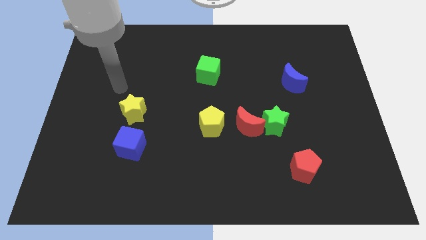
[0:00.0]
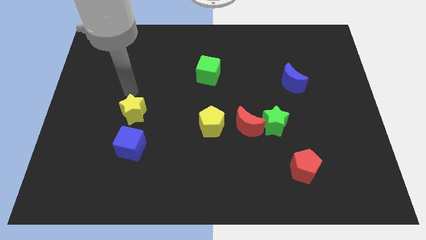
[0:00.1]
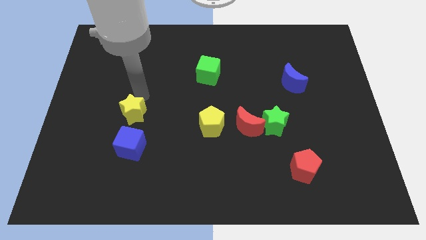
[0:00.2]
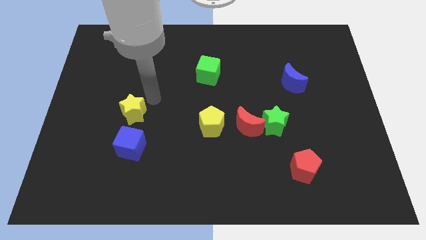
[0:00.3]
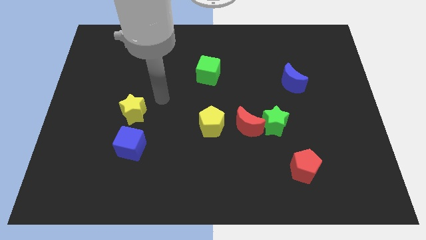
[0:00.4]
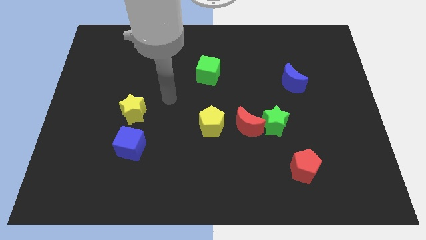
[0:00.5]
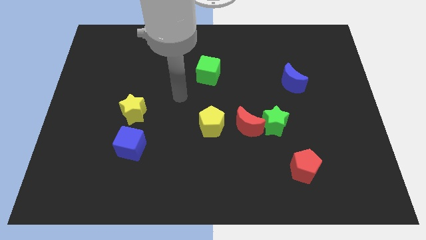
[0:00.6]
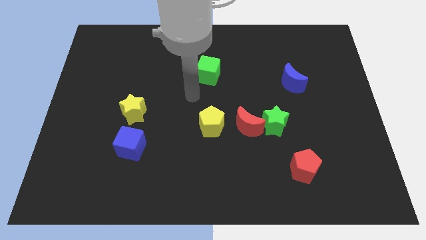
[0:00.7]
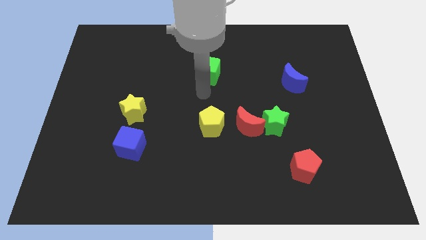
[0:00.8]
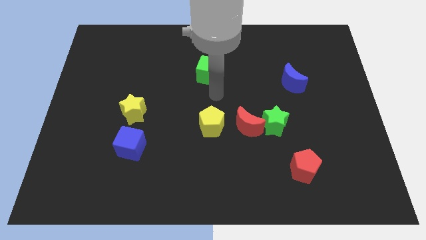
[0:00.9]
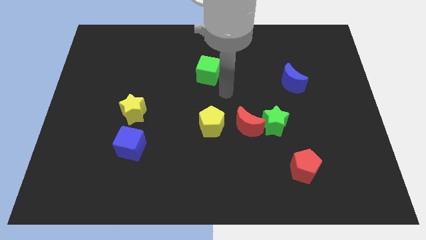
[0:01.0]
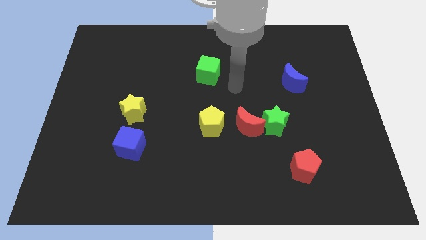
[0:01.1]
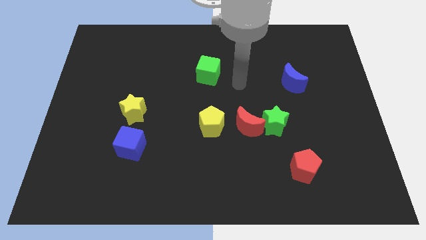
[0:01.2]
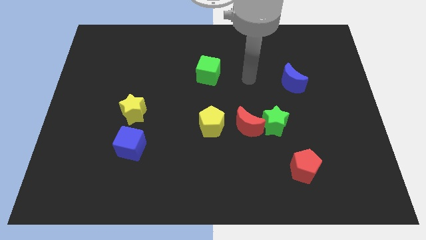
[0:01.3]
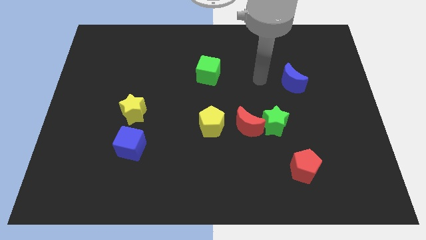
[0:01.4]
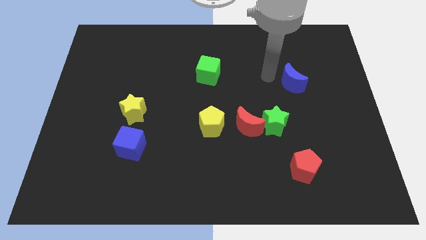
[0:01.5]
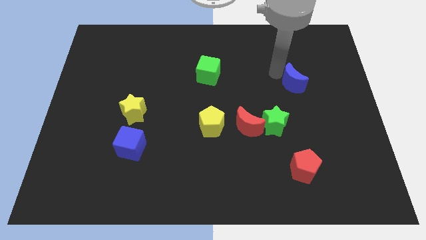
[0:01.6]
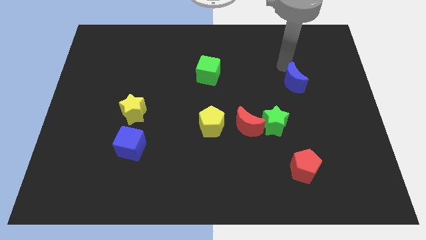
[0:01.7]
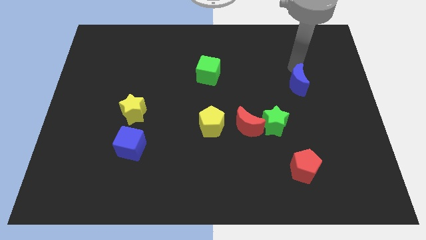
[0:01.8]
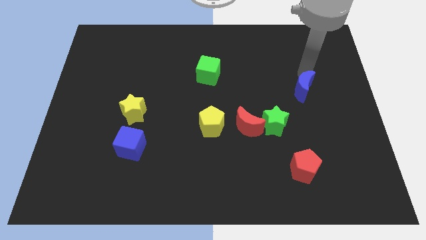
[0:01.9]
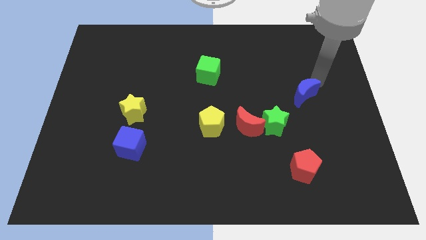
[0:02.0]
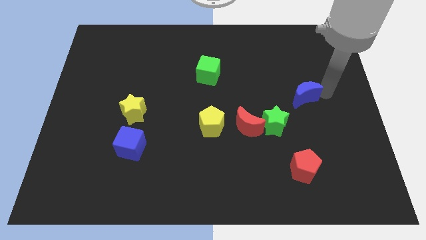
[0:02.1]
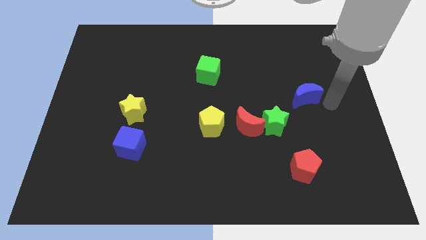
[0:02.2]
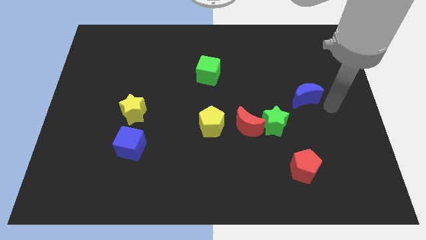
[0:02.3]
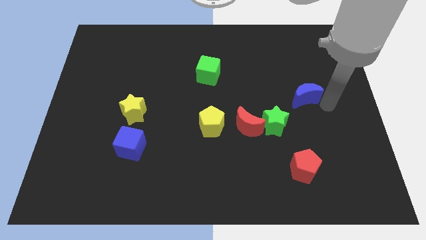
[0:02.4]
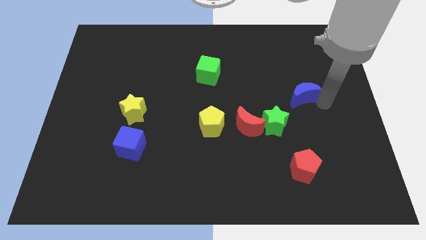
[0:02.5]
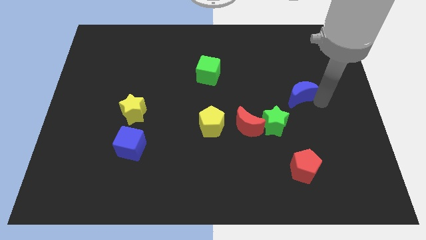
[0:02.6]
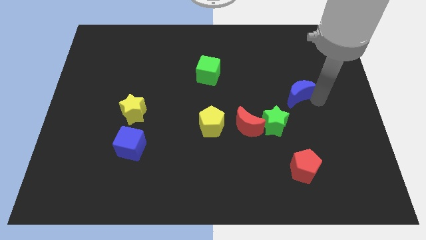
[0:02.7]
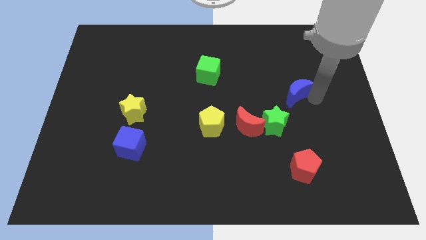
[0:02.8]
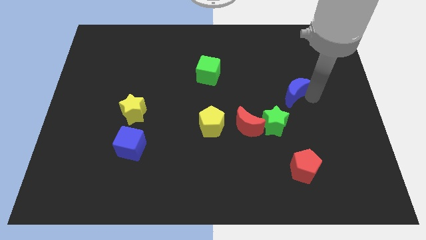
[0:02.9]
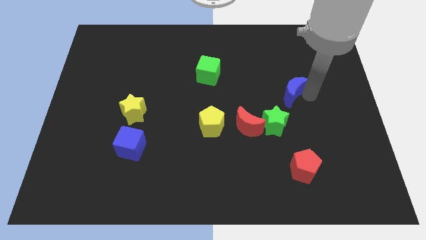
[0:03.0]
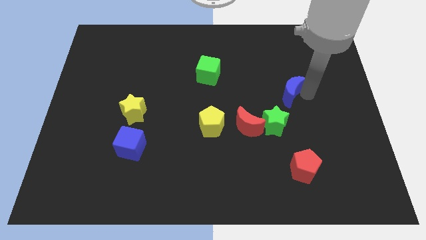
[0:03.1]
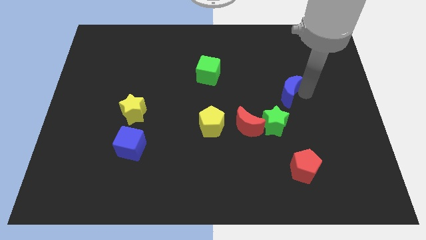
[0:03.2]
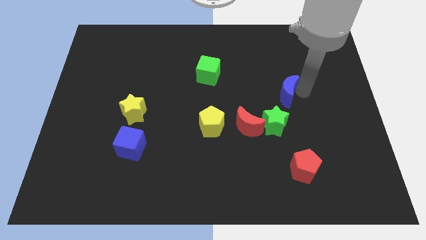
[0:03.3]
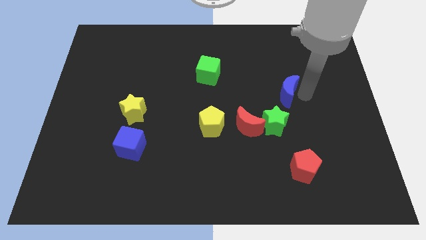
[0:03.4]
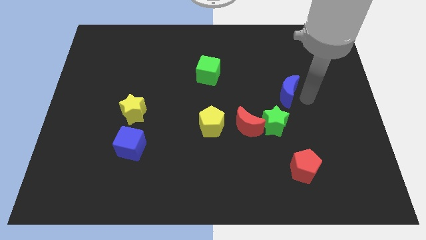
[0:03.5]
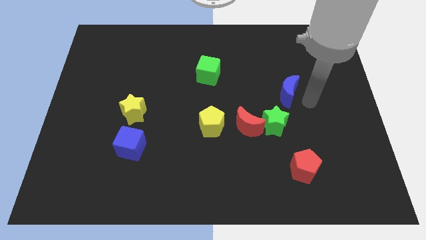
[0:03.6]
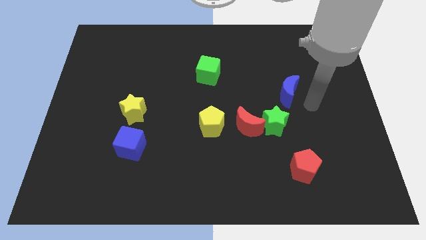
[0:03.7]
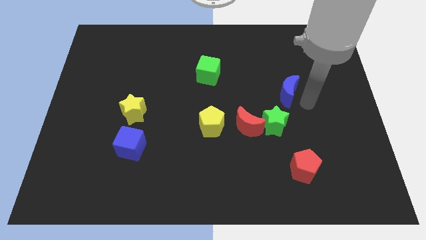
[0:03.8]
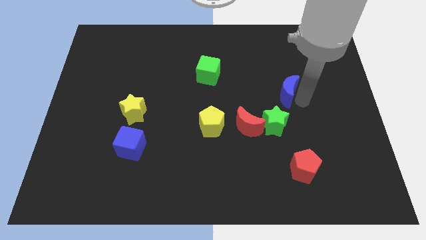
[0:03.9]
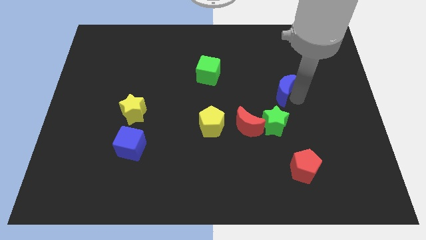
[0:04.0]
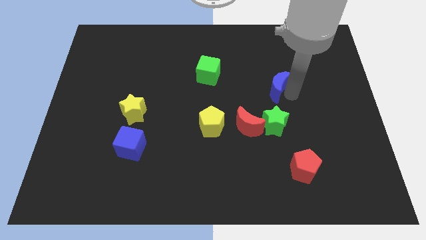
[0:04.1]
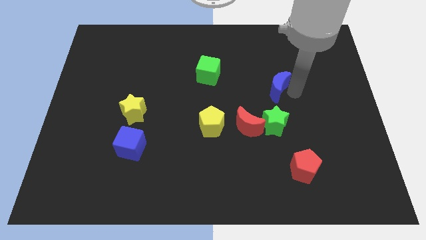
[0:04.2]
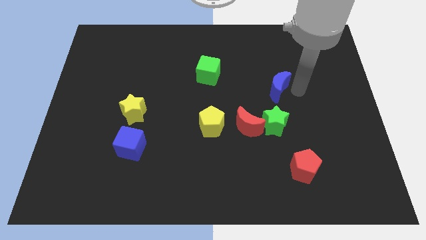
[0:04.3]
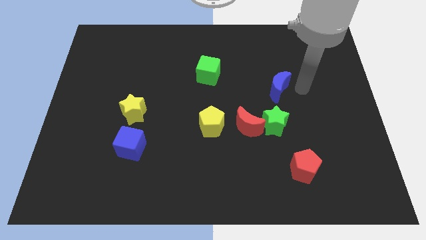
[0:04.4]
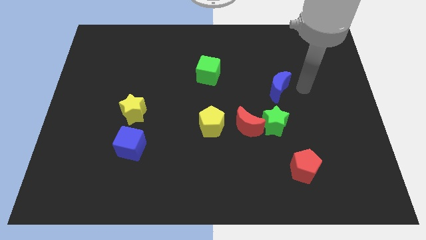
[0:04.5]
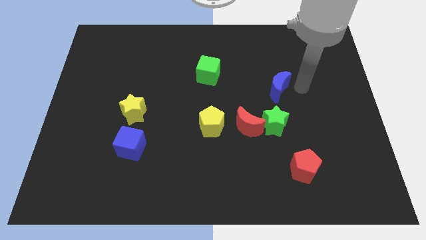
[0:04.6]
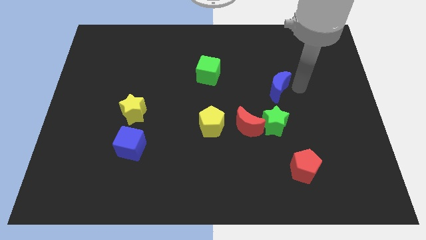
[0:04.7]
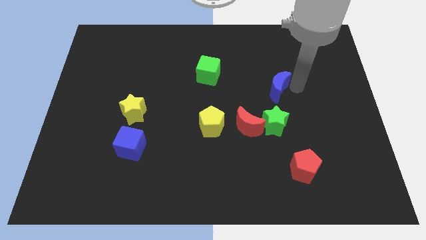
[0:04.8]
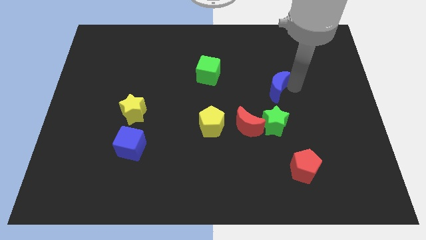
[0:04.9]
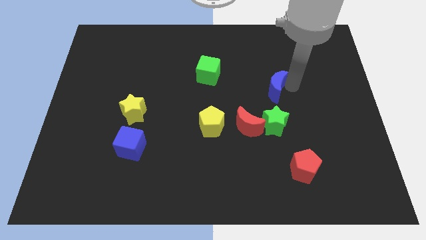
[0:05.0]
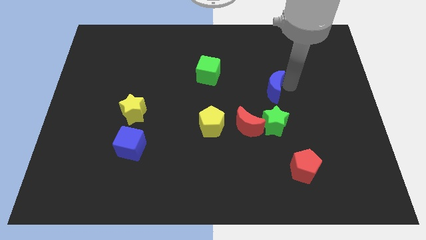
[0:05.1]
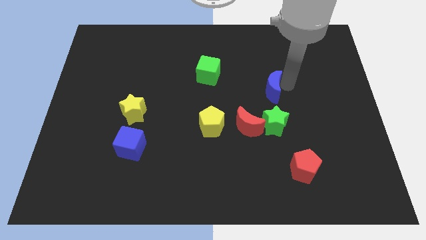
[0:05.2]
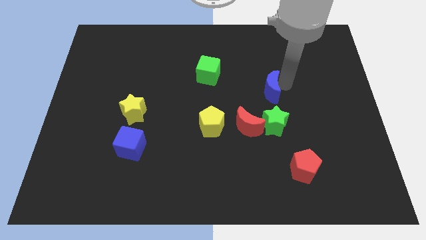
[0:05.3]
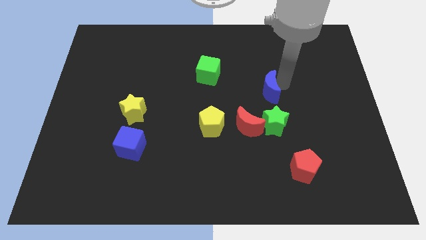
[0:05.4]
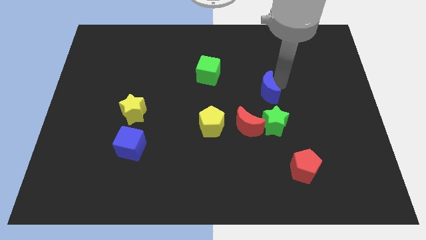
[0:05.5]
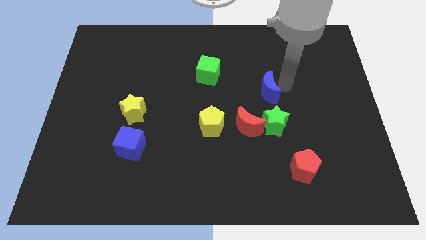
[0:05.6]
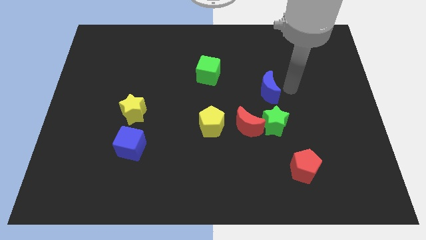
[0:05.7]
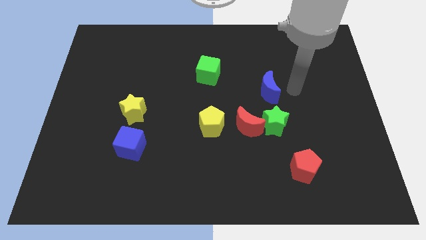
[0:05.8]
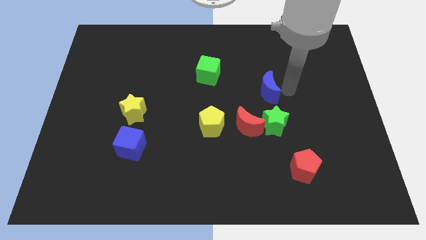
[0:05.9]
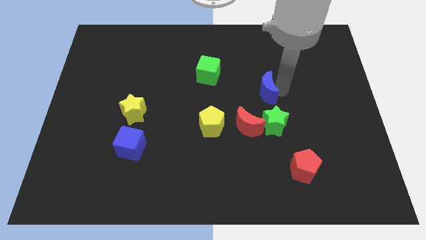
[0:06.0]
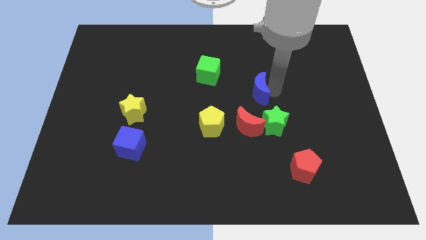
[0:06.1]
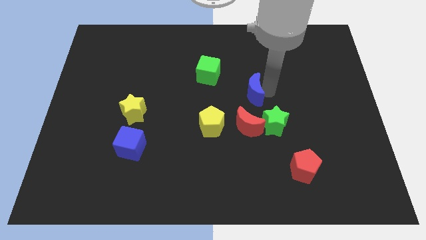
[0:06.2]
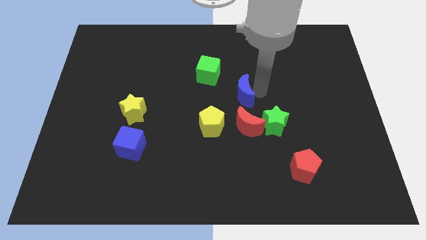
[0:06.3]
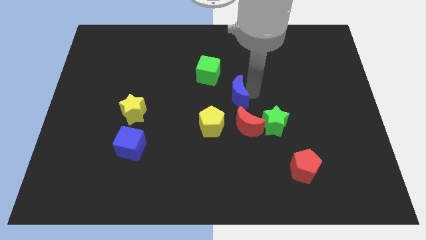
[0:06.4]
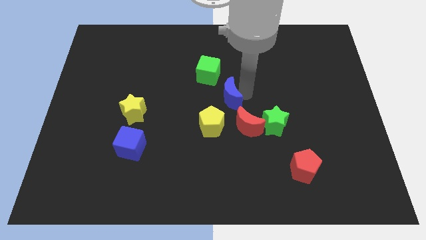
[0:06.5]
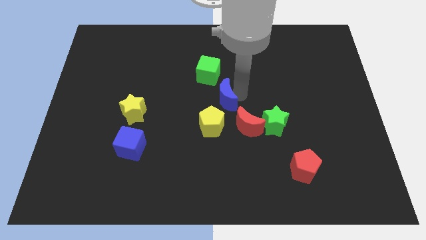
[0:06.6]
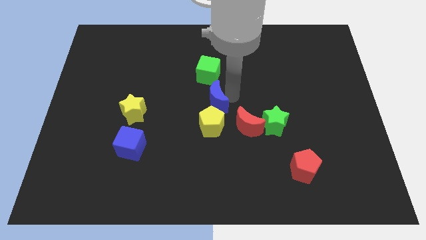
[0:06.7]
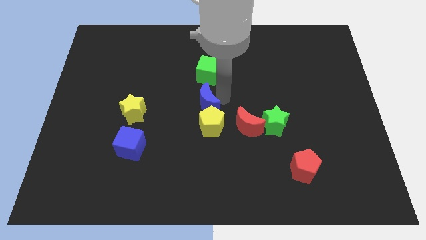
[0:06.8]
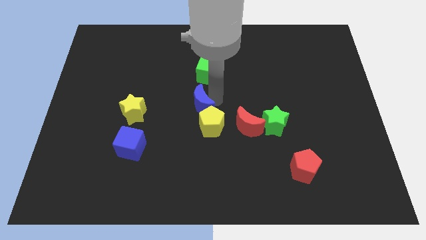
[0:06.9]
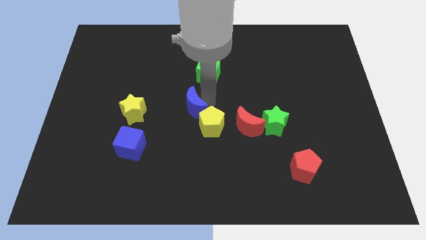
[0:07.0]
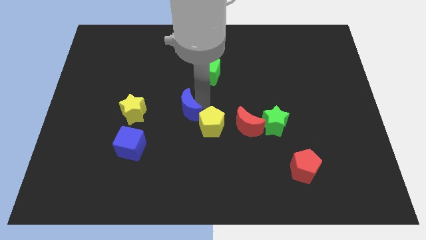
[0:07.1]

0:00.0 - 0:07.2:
put the blue moon to the left side of the yellow pentagon

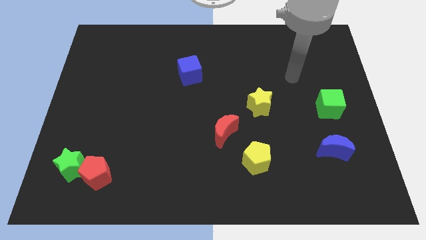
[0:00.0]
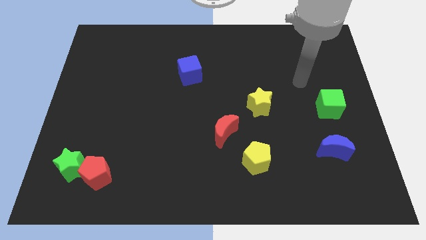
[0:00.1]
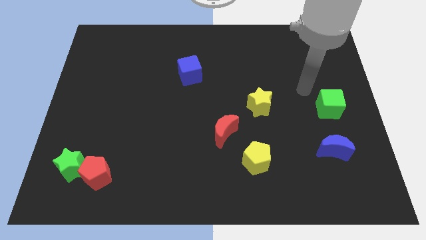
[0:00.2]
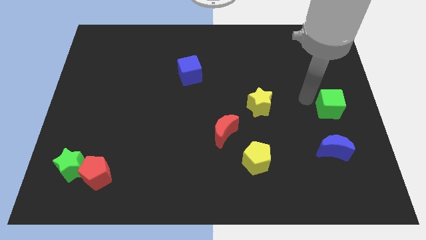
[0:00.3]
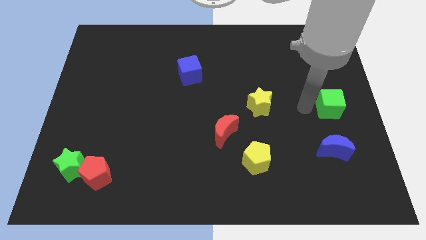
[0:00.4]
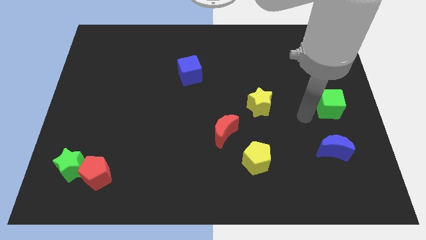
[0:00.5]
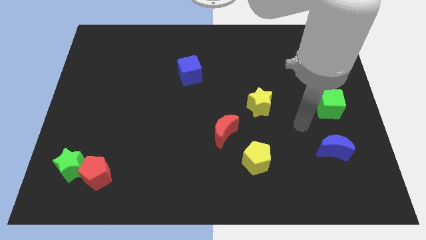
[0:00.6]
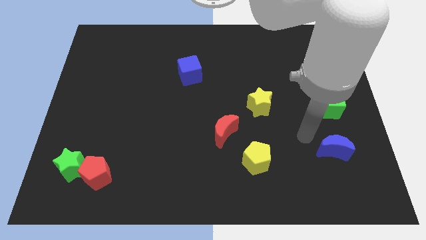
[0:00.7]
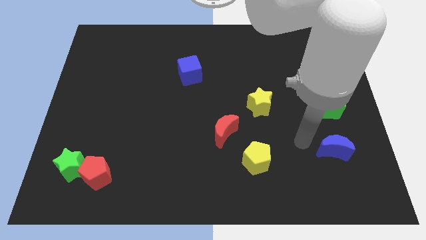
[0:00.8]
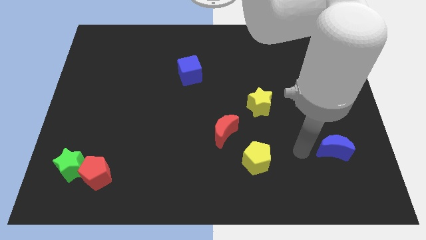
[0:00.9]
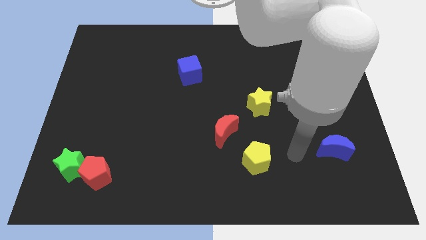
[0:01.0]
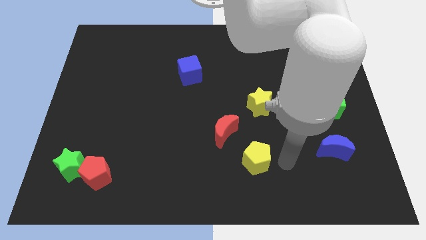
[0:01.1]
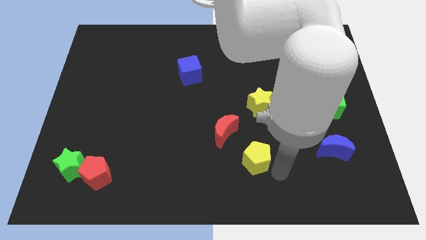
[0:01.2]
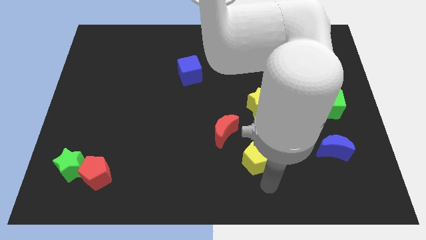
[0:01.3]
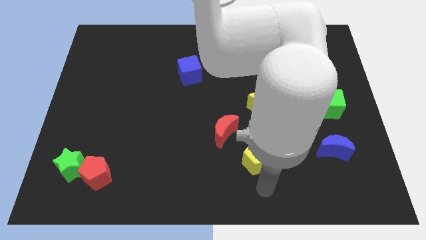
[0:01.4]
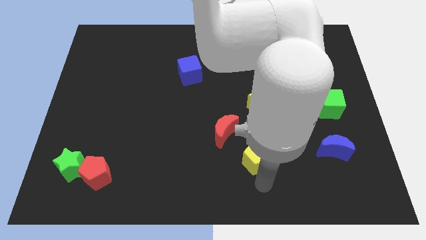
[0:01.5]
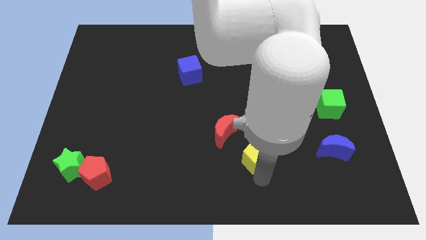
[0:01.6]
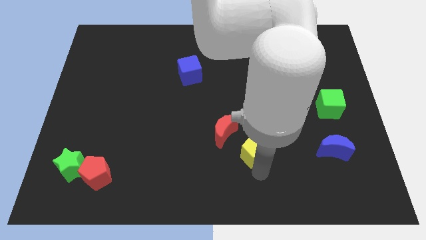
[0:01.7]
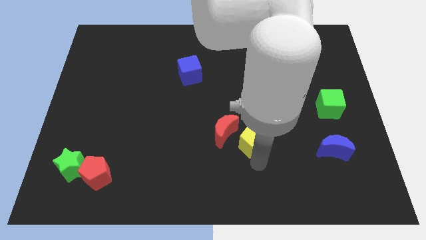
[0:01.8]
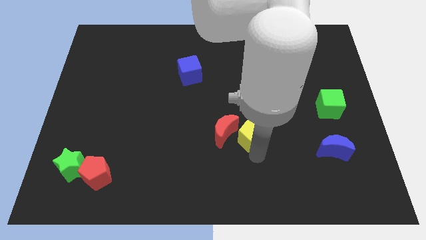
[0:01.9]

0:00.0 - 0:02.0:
put the yellow pentagon diagonally down and to the left of the yellow star
